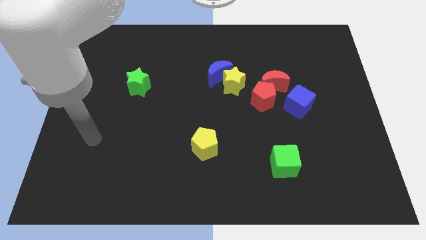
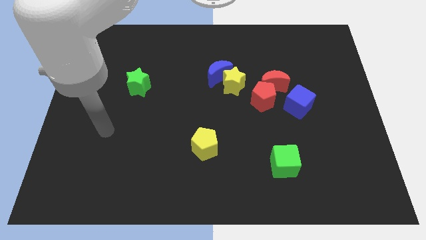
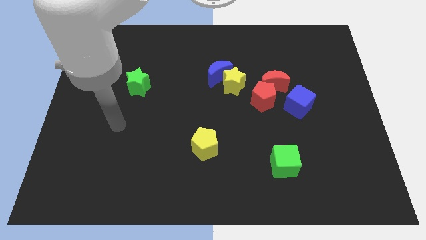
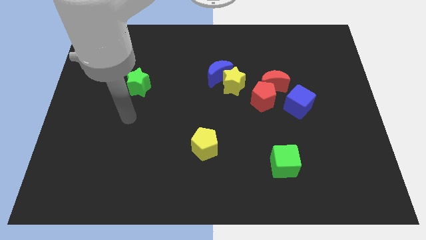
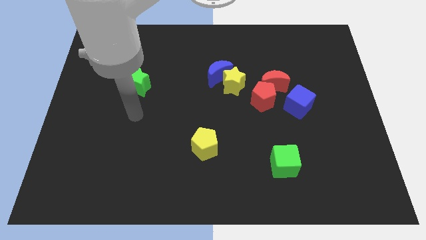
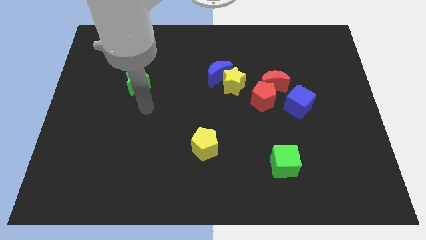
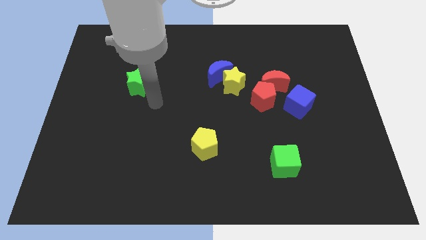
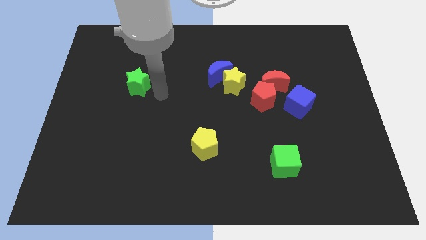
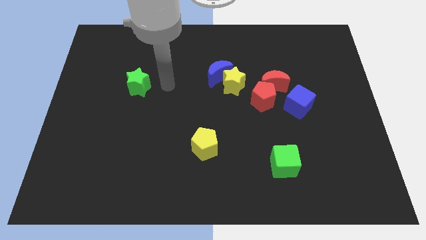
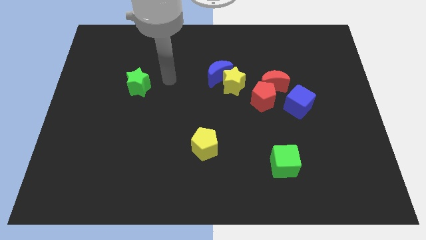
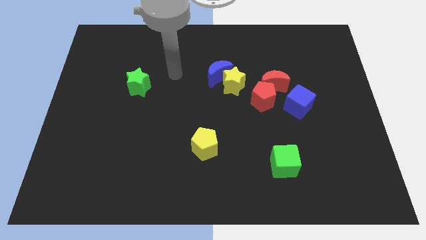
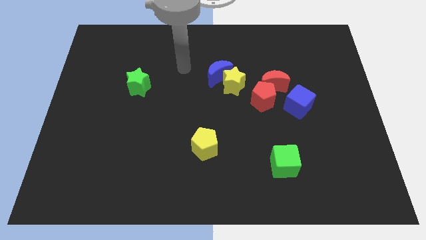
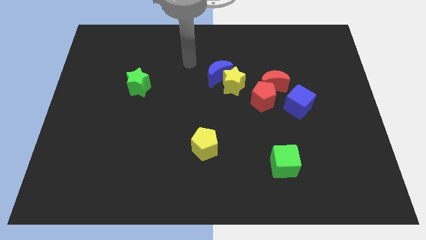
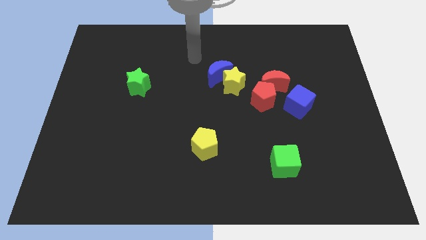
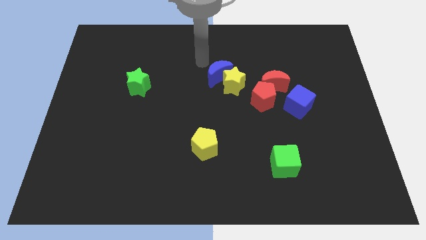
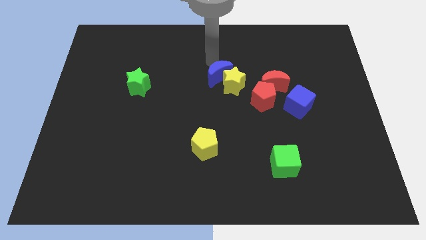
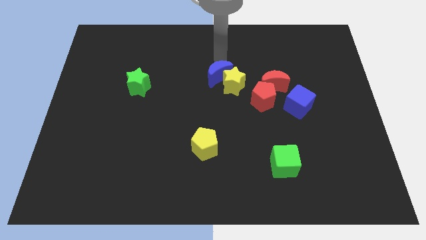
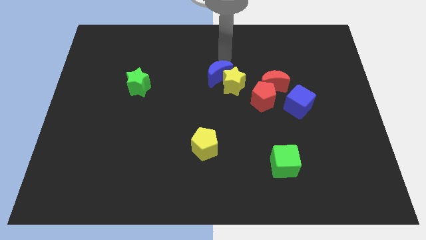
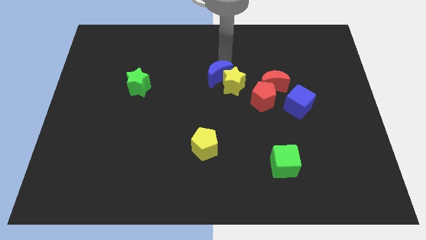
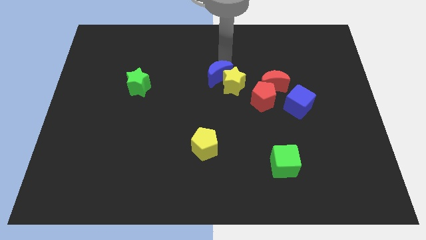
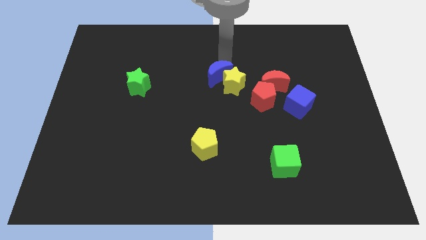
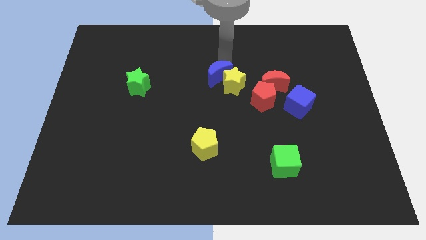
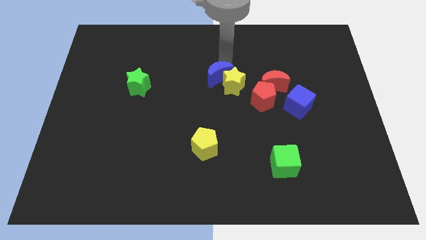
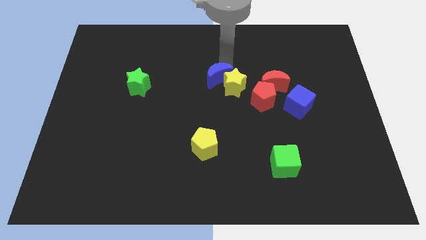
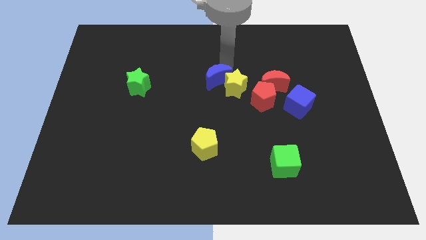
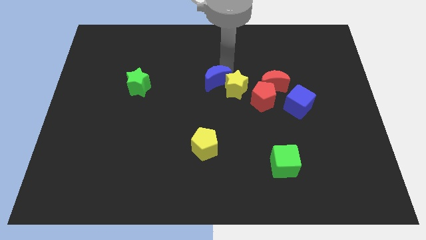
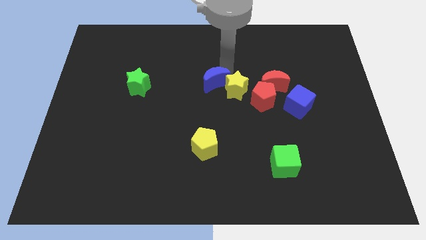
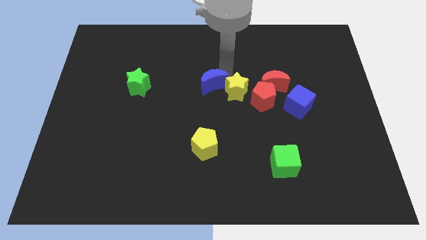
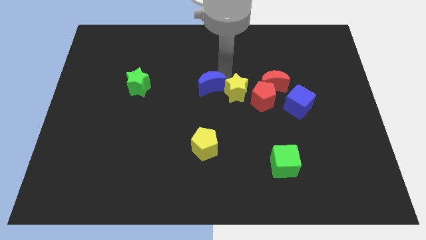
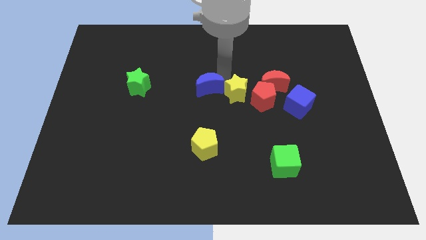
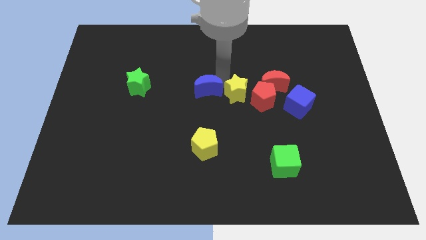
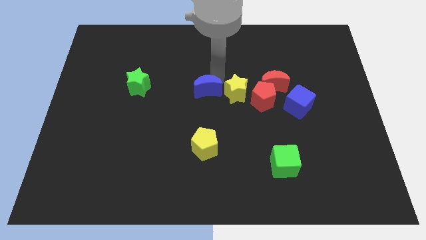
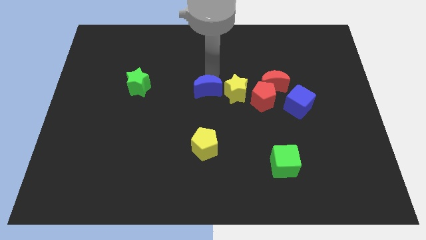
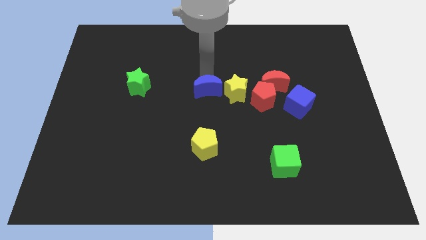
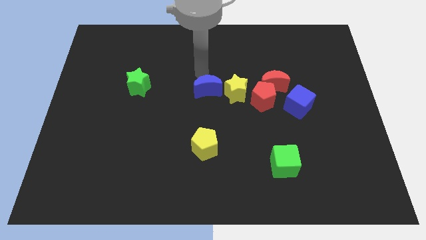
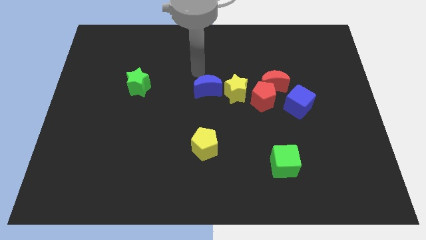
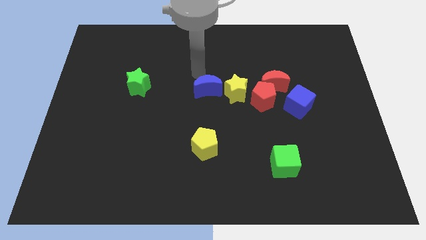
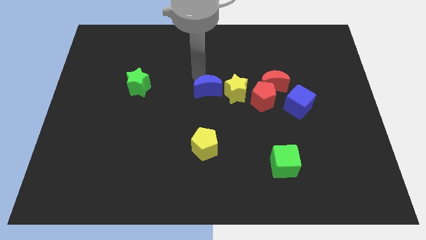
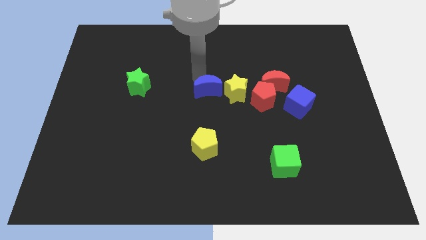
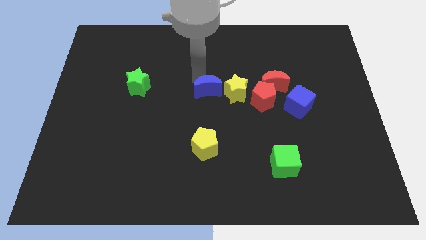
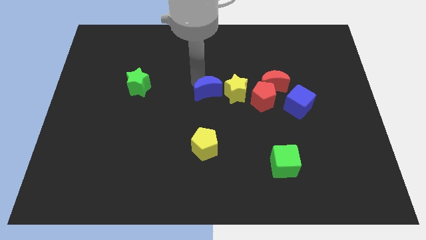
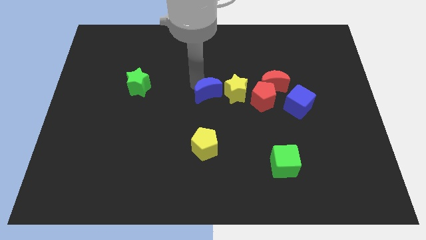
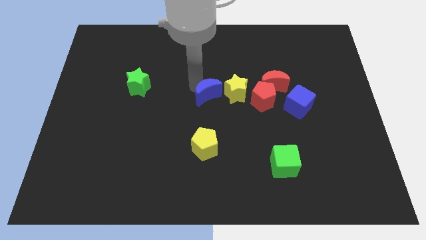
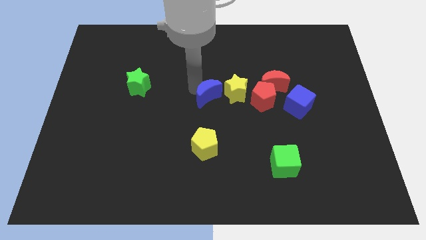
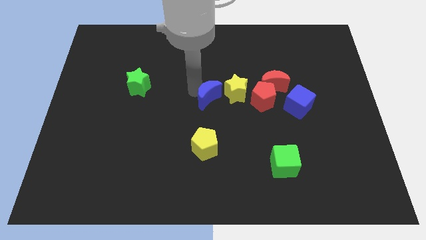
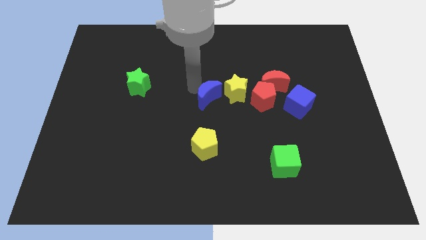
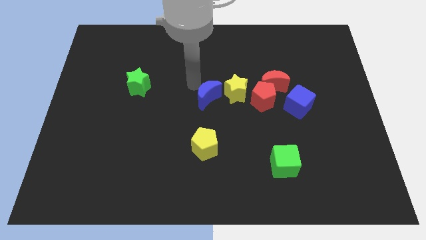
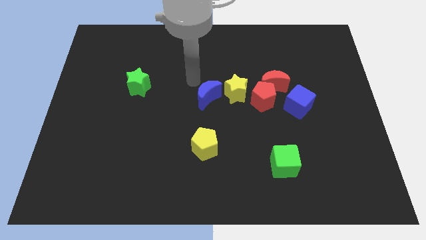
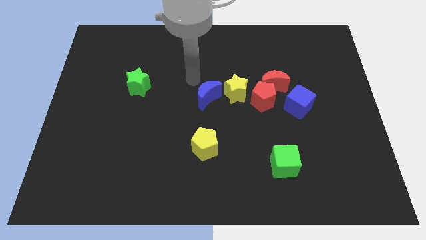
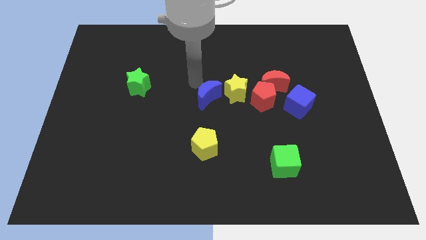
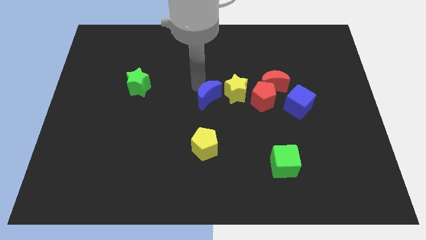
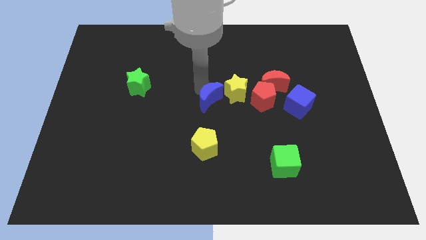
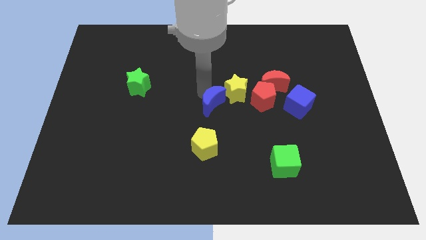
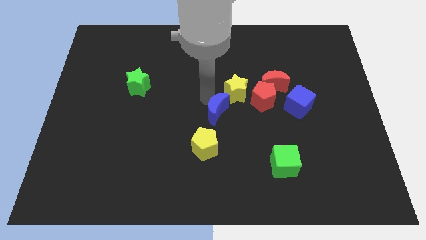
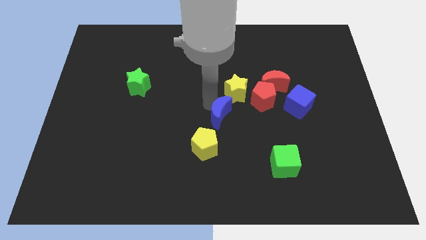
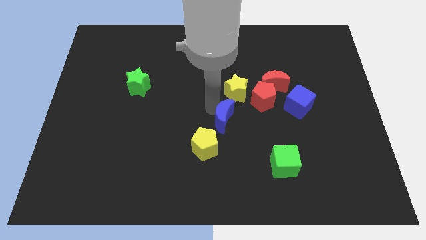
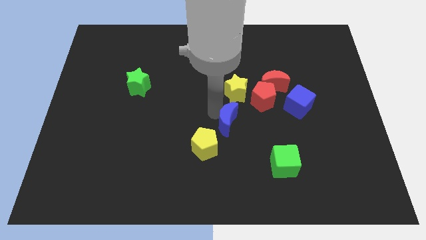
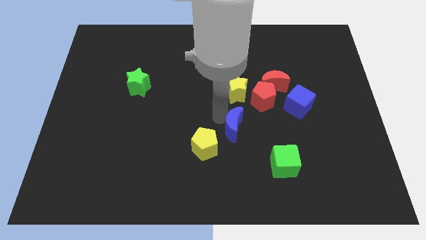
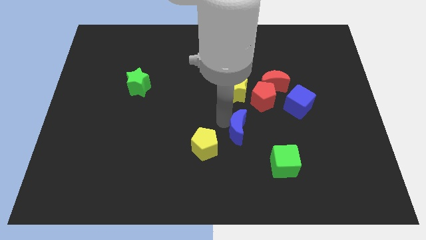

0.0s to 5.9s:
push the blue moon diagonally up and to the left of the green cube

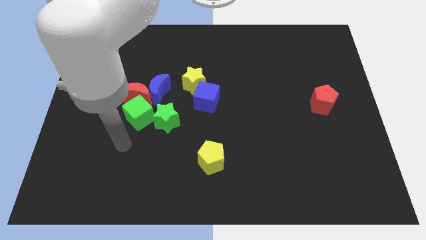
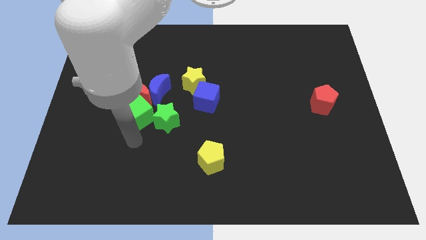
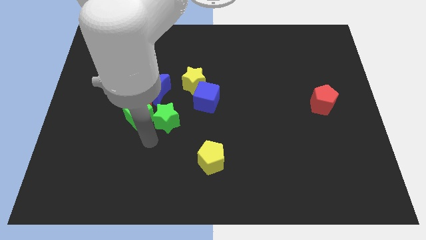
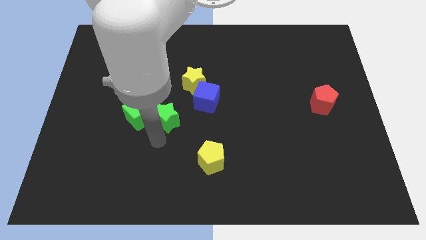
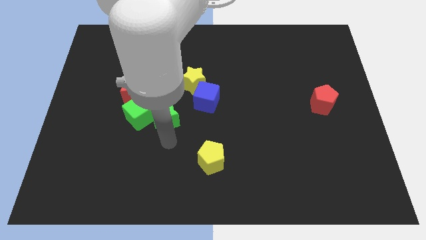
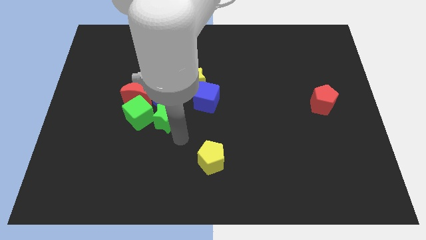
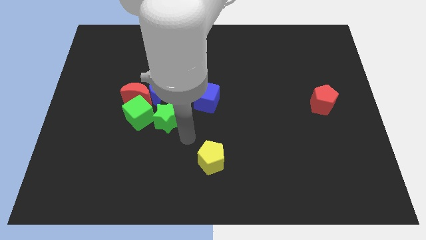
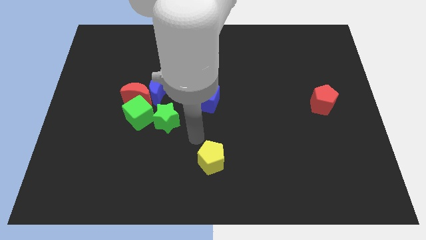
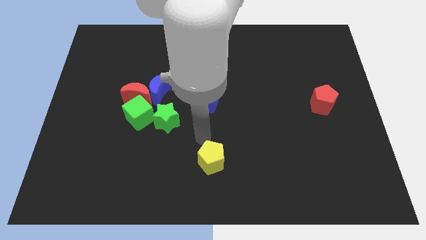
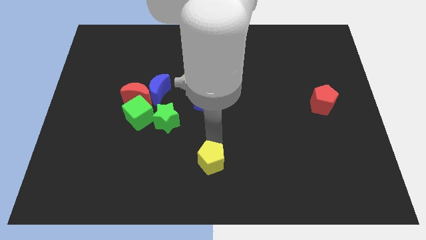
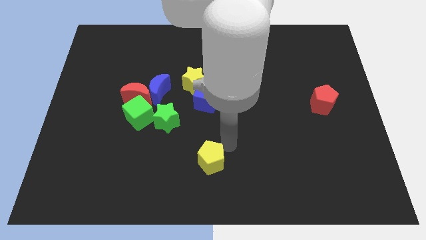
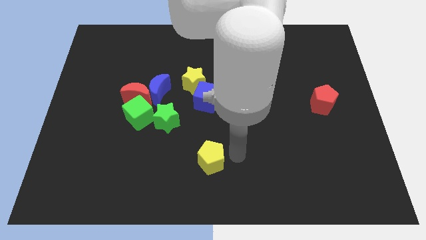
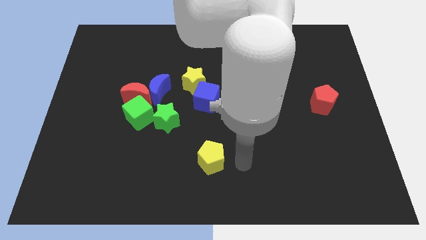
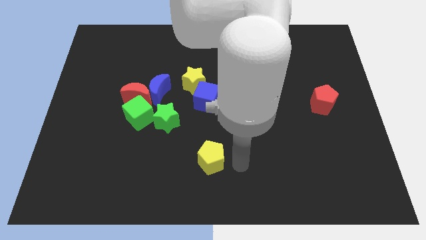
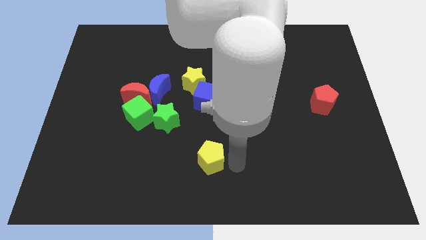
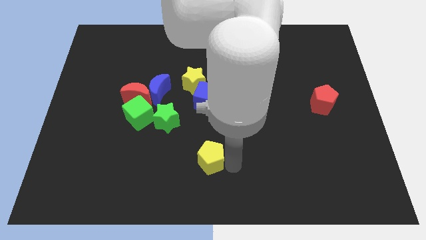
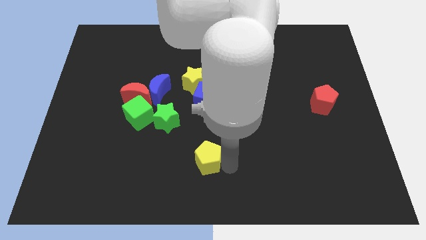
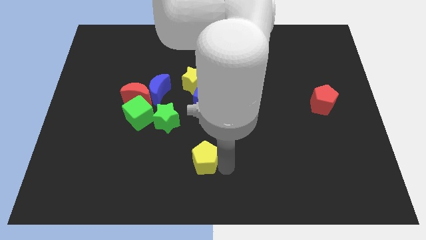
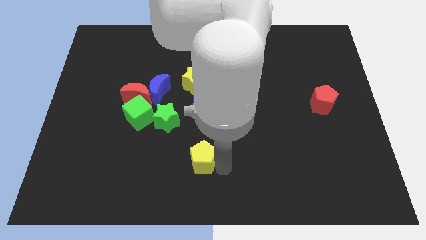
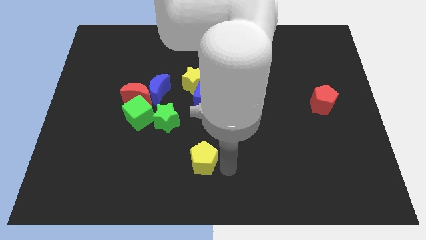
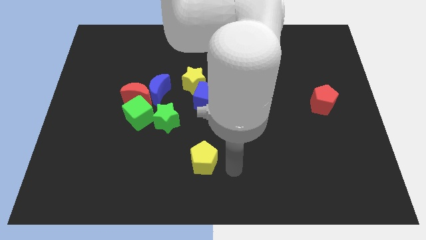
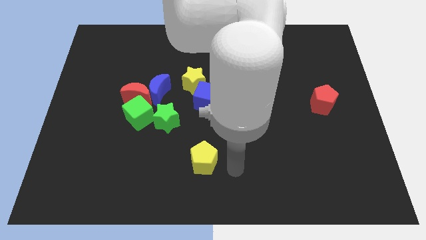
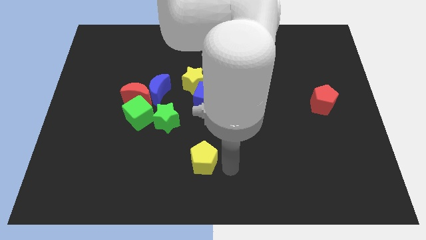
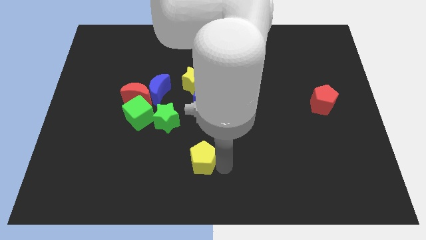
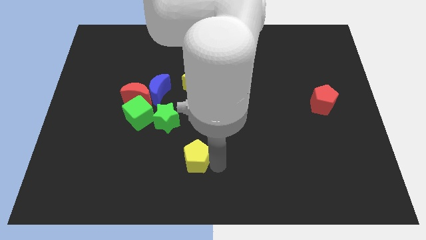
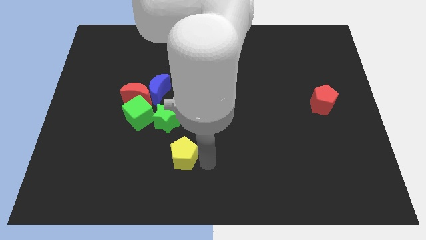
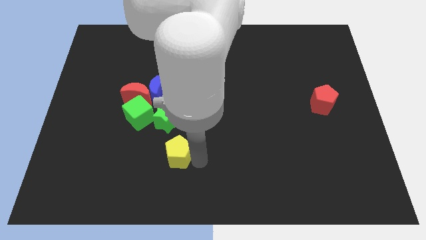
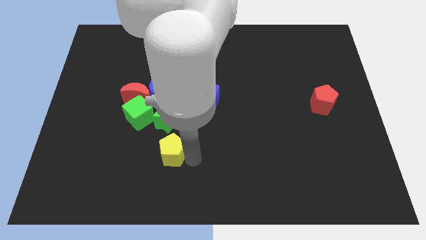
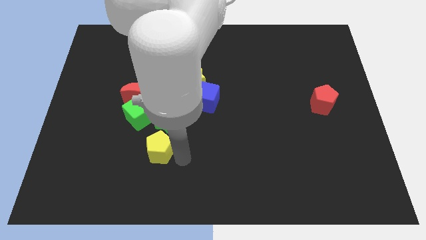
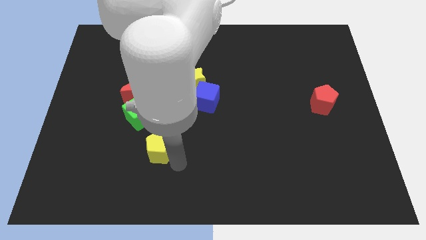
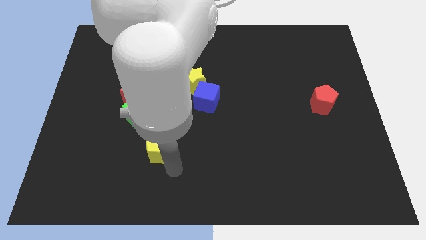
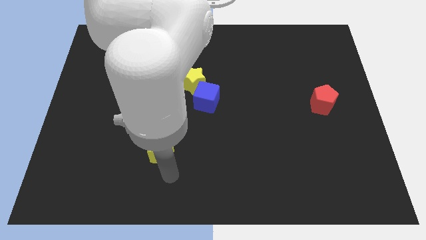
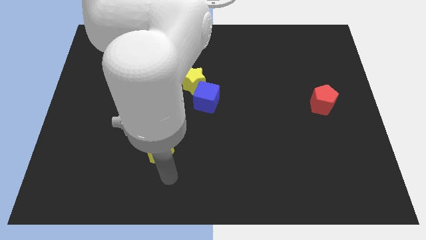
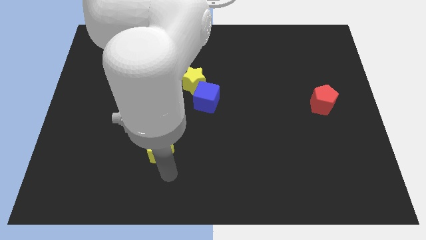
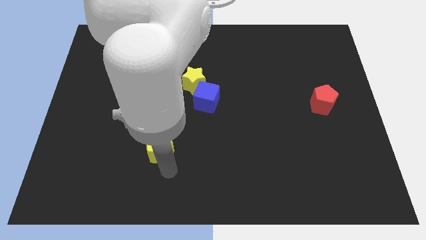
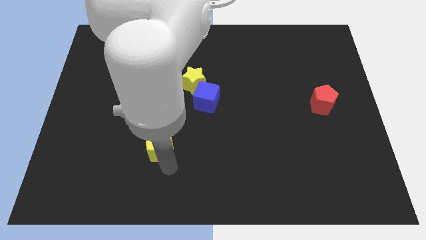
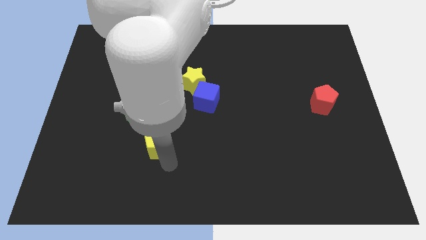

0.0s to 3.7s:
push the yellow pentagon to the bottom side of the blue moon
